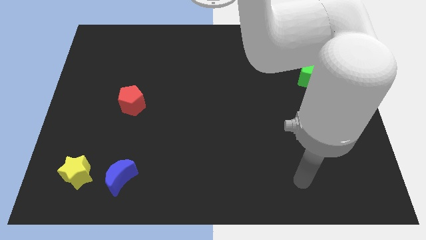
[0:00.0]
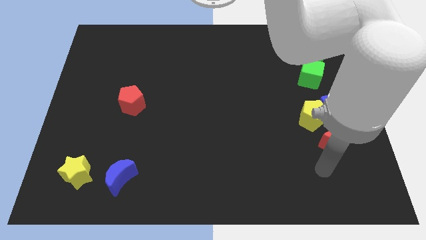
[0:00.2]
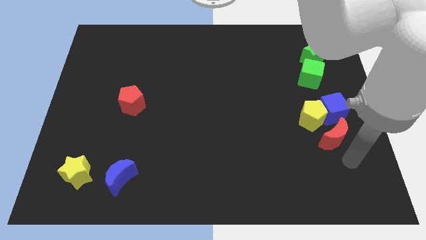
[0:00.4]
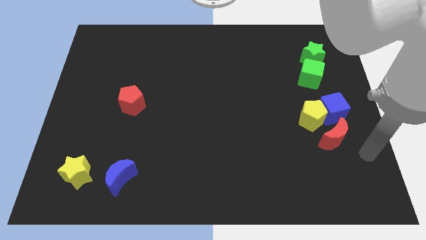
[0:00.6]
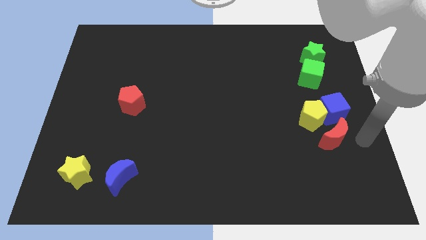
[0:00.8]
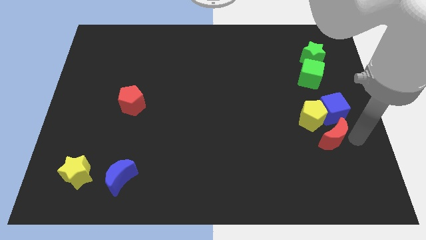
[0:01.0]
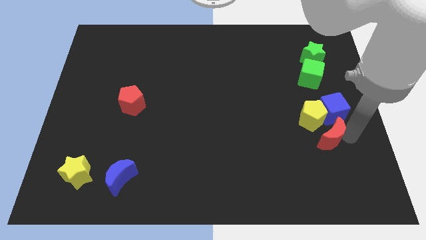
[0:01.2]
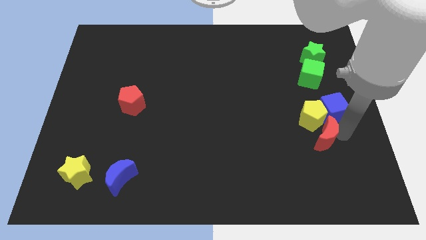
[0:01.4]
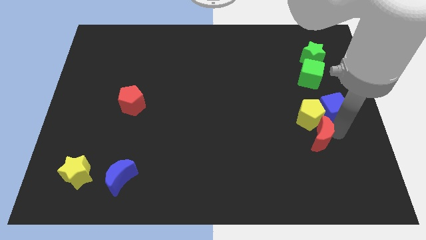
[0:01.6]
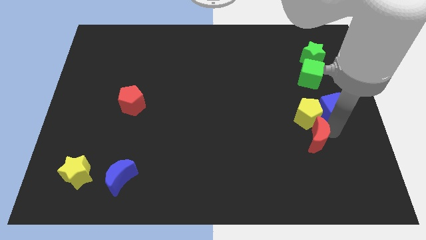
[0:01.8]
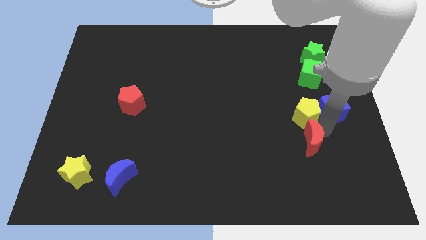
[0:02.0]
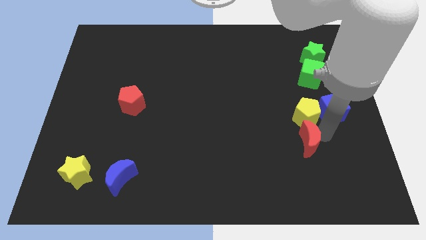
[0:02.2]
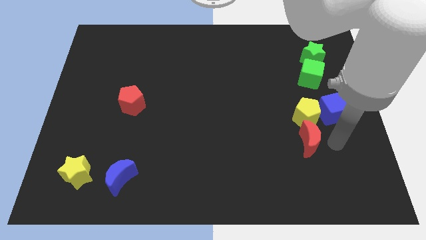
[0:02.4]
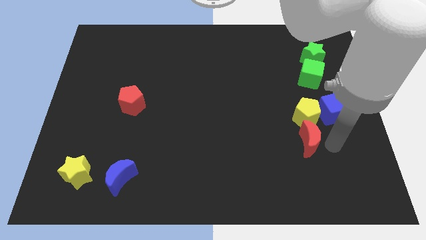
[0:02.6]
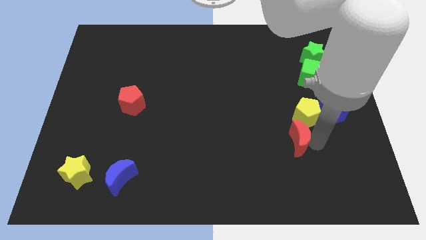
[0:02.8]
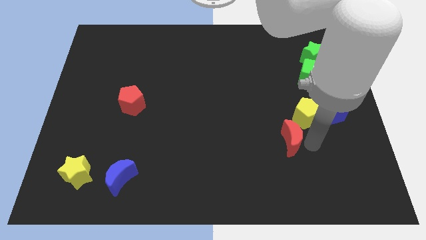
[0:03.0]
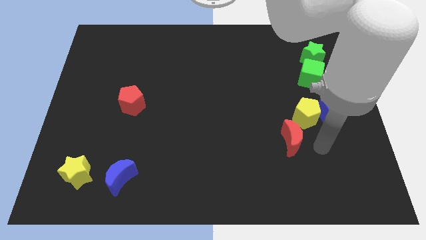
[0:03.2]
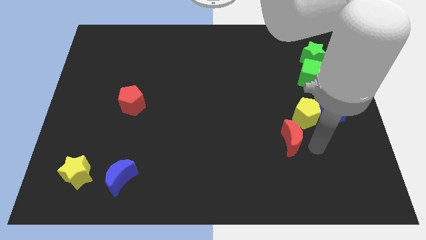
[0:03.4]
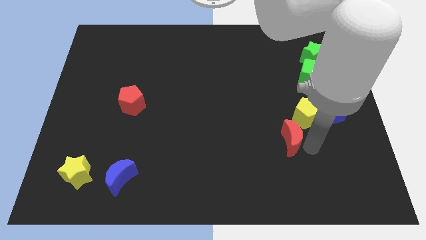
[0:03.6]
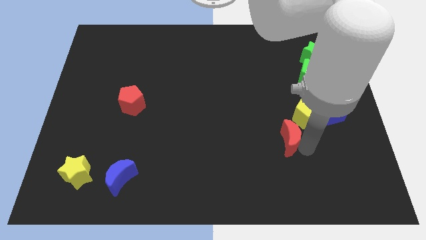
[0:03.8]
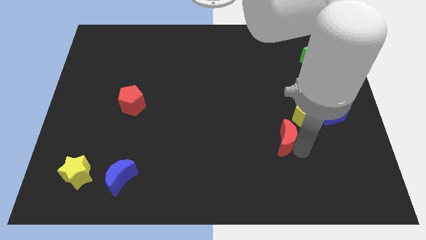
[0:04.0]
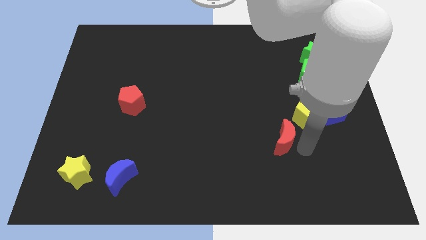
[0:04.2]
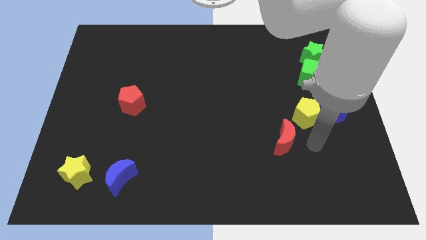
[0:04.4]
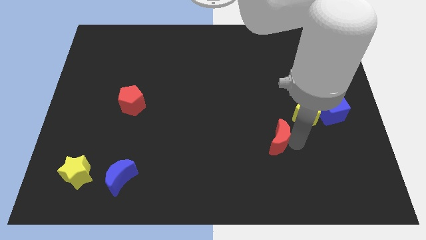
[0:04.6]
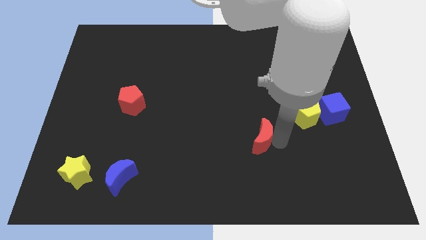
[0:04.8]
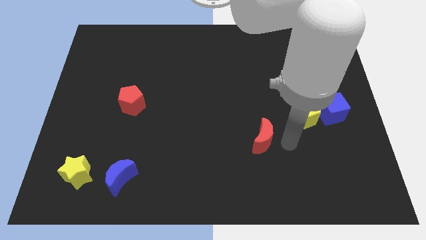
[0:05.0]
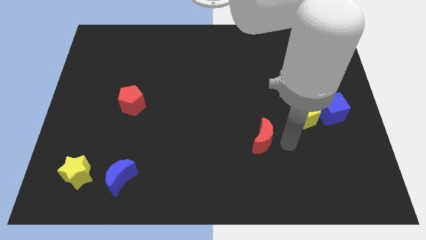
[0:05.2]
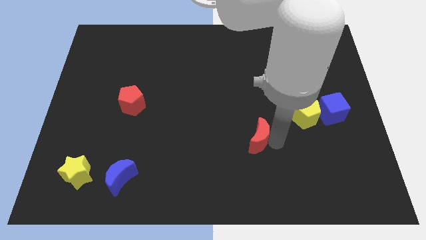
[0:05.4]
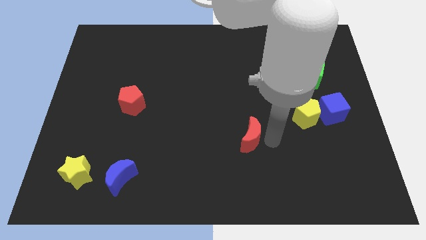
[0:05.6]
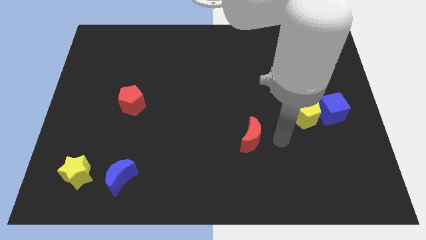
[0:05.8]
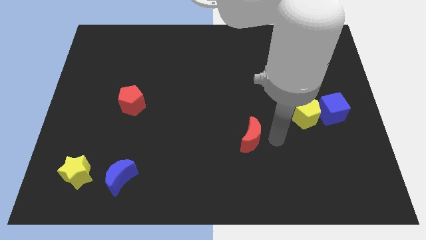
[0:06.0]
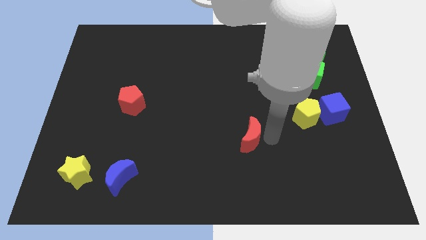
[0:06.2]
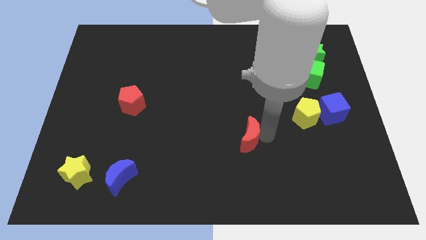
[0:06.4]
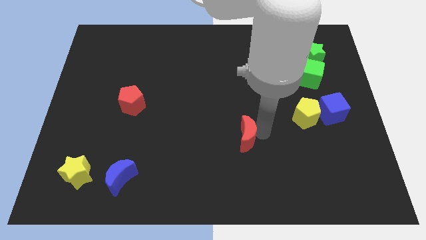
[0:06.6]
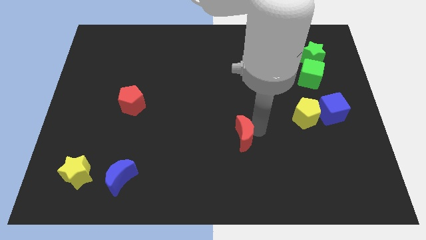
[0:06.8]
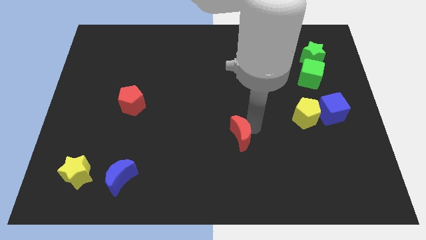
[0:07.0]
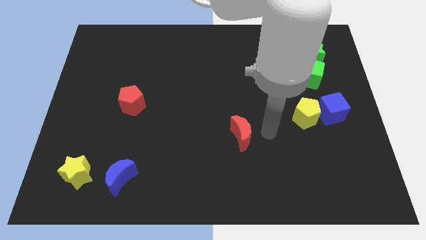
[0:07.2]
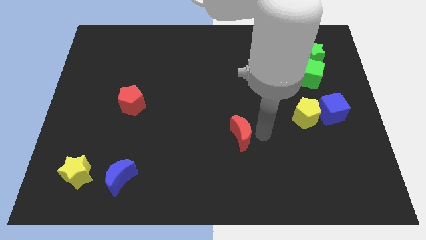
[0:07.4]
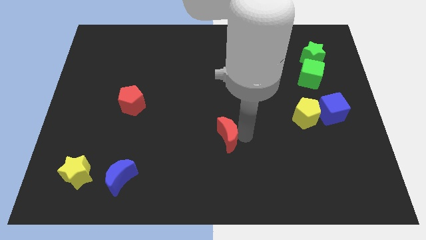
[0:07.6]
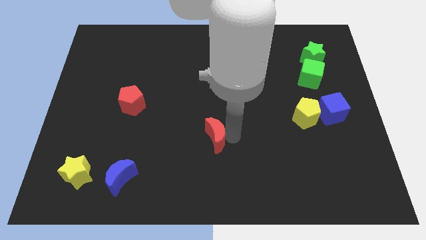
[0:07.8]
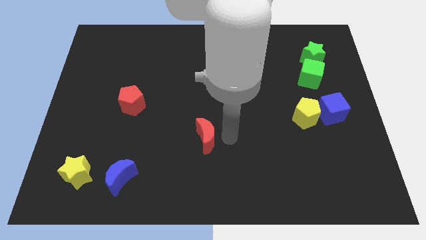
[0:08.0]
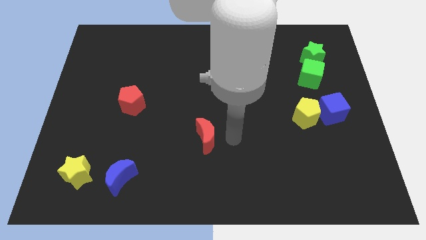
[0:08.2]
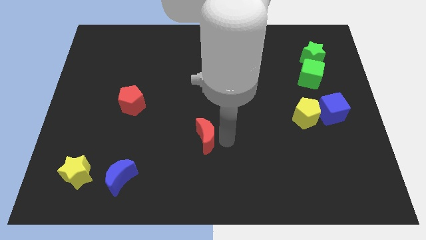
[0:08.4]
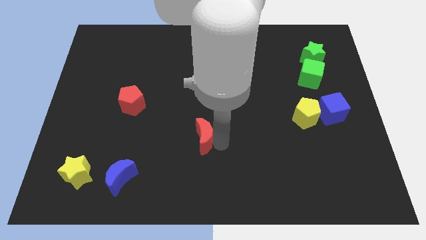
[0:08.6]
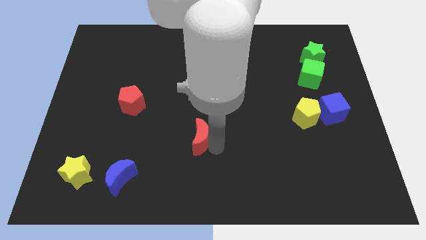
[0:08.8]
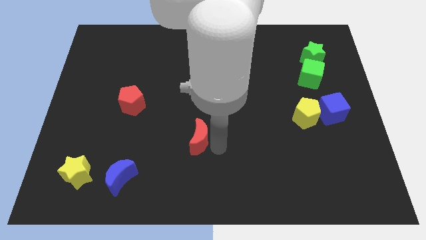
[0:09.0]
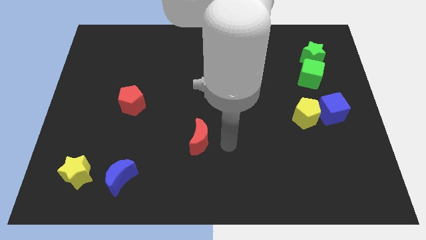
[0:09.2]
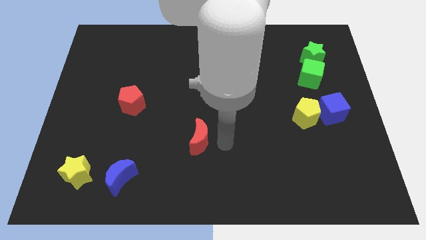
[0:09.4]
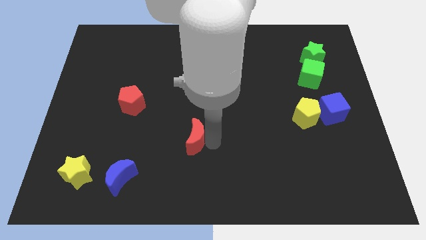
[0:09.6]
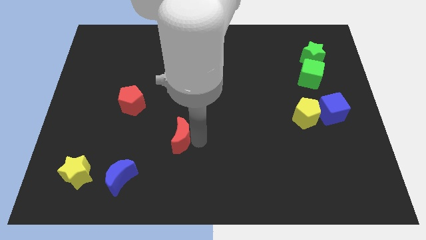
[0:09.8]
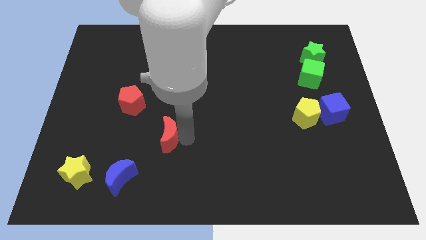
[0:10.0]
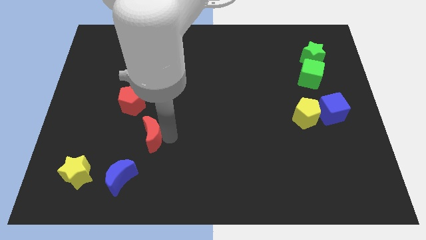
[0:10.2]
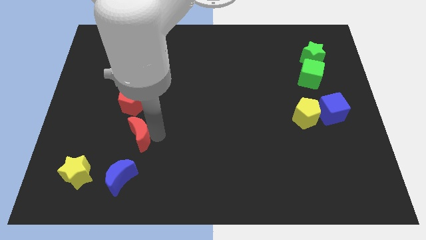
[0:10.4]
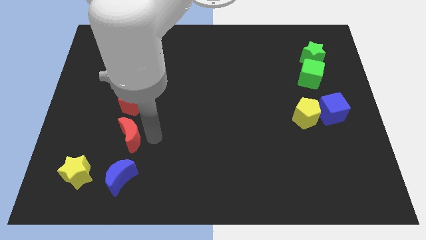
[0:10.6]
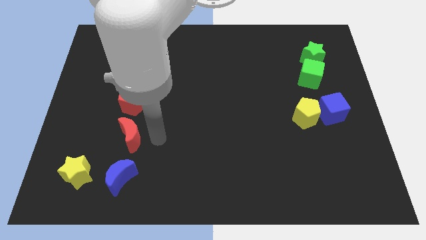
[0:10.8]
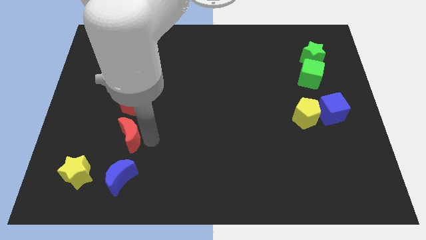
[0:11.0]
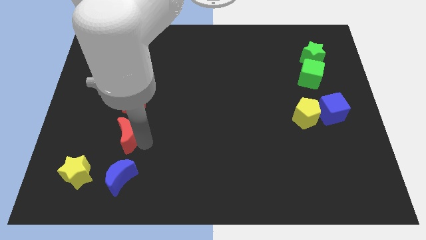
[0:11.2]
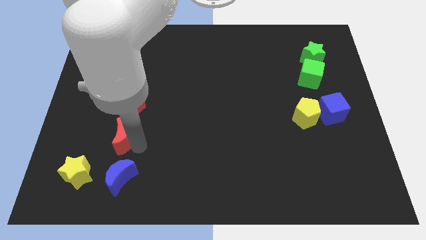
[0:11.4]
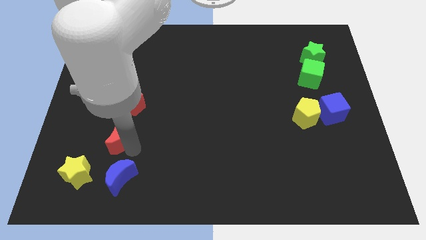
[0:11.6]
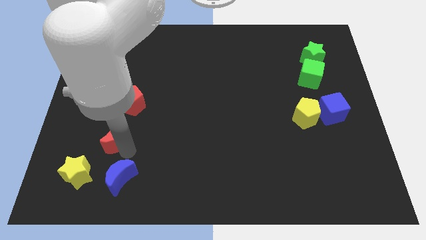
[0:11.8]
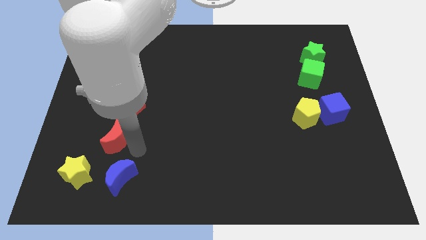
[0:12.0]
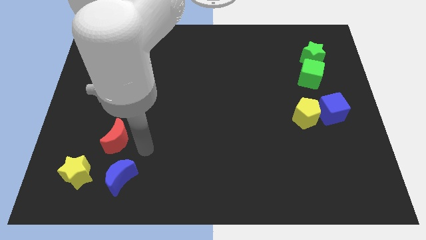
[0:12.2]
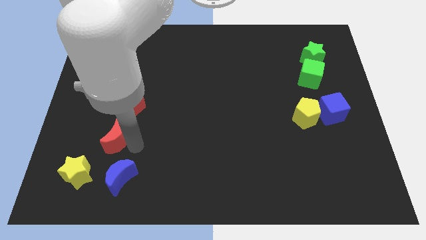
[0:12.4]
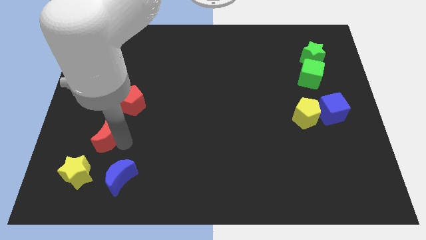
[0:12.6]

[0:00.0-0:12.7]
move the red moon to the top of the yellow star

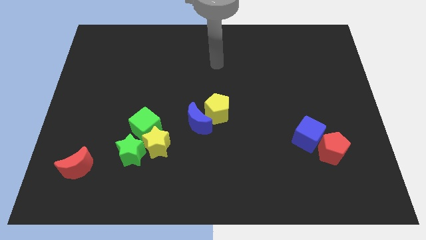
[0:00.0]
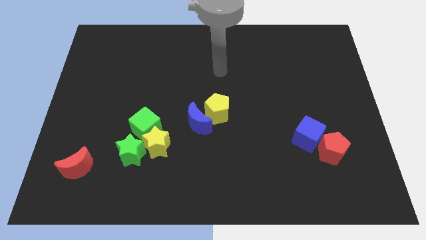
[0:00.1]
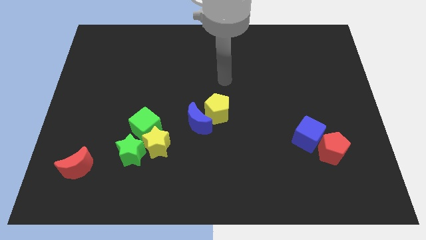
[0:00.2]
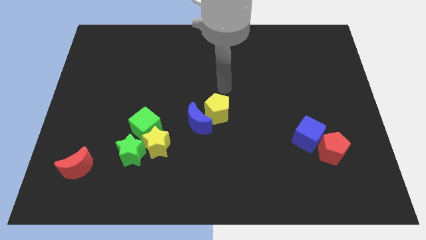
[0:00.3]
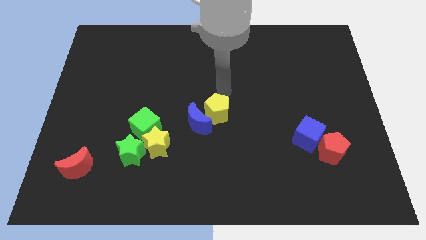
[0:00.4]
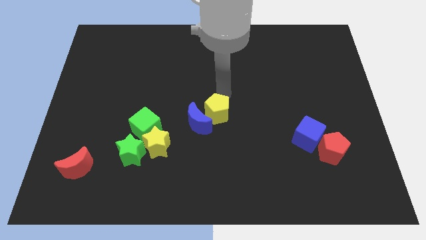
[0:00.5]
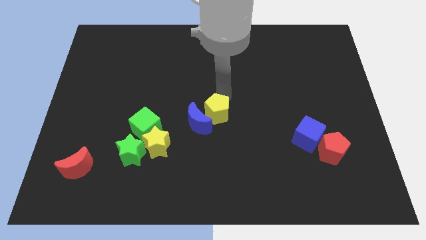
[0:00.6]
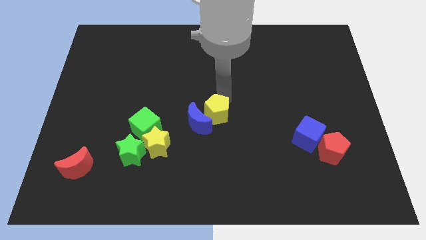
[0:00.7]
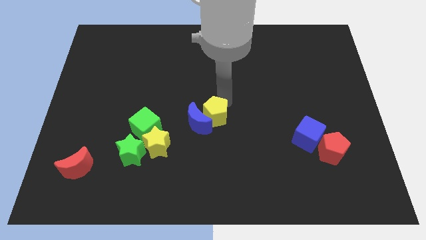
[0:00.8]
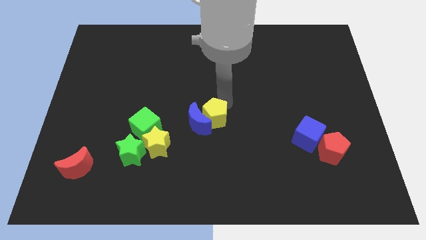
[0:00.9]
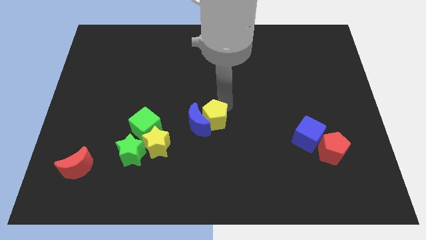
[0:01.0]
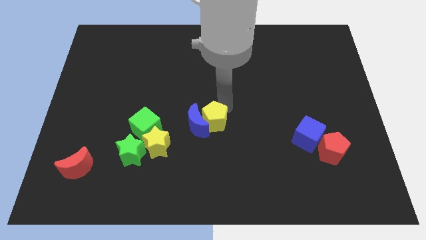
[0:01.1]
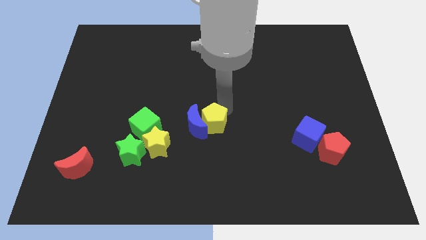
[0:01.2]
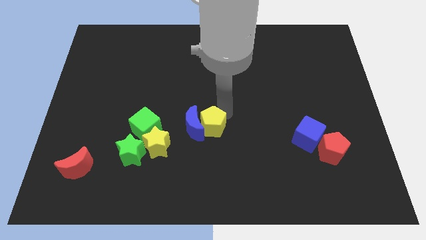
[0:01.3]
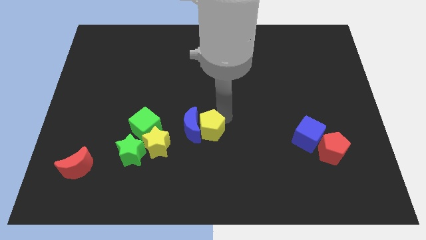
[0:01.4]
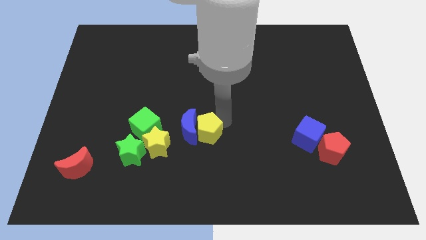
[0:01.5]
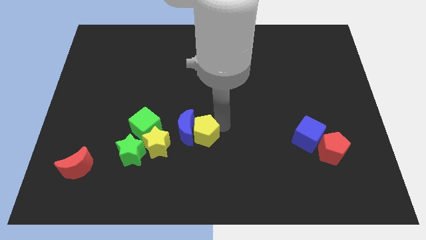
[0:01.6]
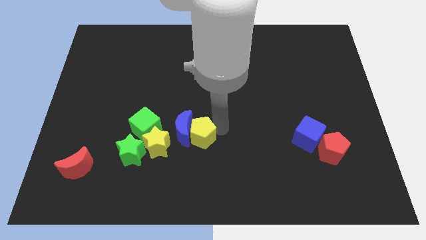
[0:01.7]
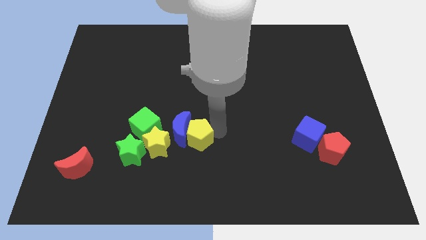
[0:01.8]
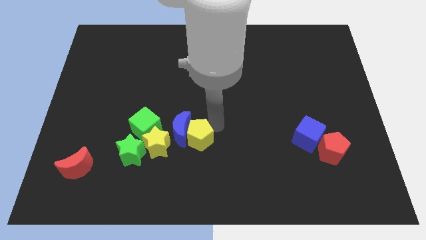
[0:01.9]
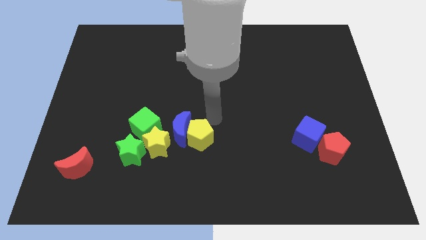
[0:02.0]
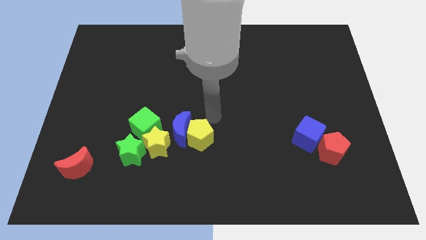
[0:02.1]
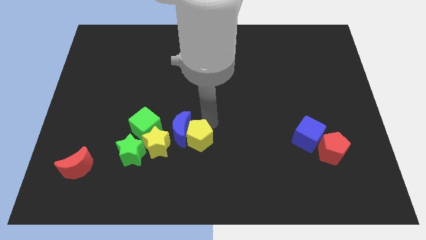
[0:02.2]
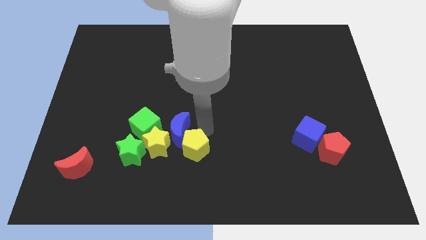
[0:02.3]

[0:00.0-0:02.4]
slide the yellow pentagon to the bottom side of the blue moon
